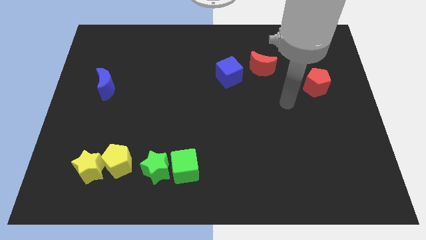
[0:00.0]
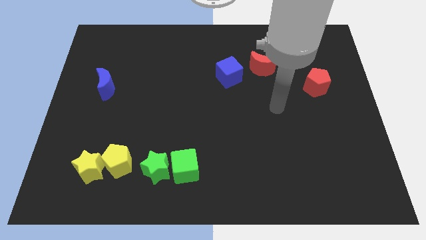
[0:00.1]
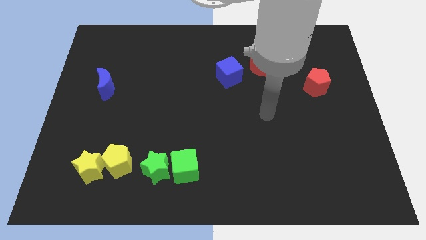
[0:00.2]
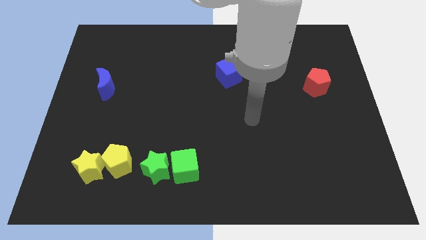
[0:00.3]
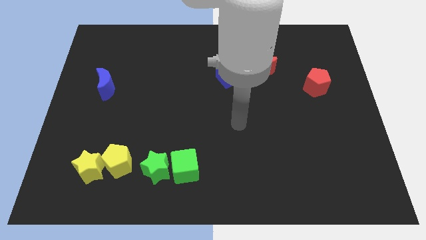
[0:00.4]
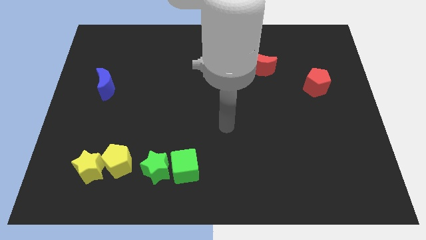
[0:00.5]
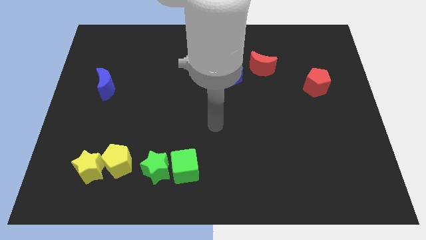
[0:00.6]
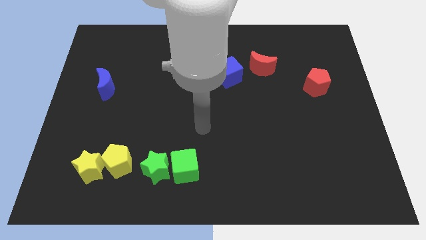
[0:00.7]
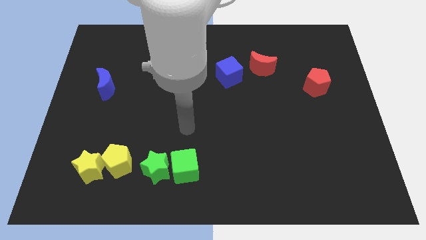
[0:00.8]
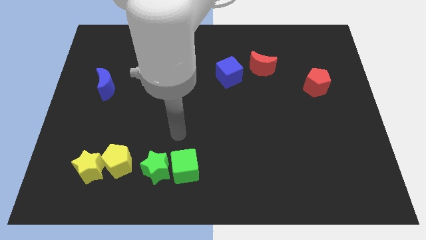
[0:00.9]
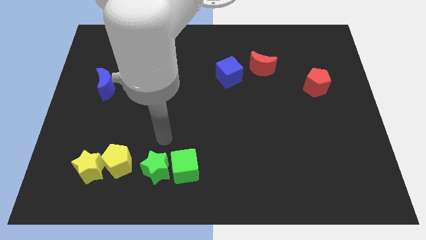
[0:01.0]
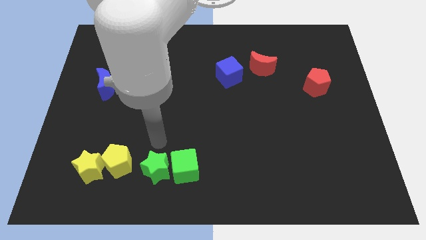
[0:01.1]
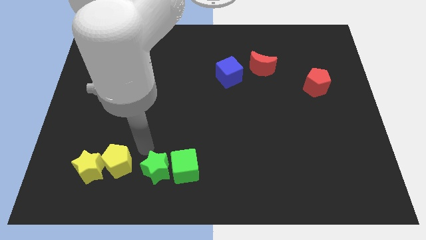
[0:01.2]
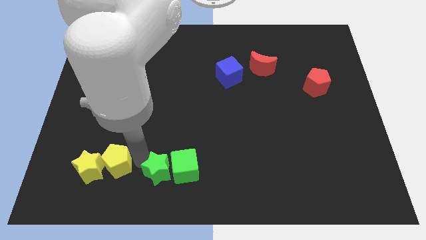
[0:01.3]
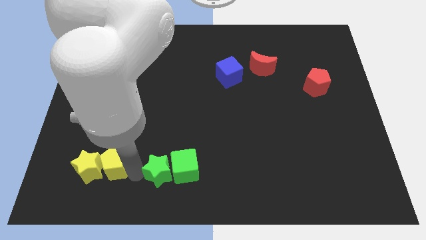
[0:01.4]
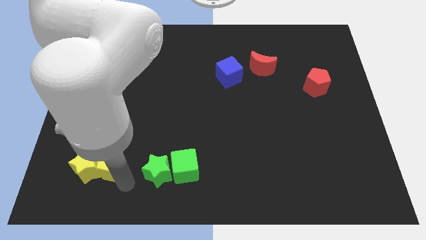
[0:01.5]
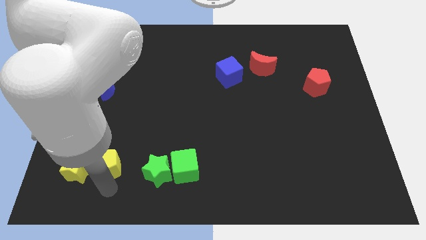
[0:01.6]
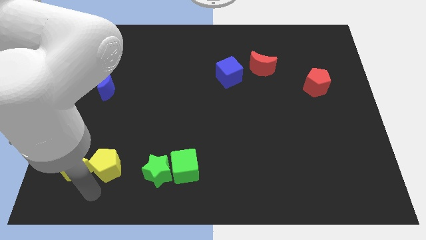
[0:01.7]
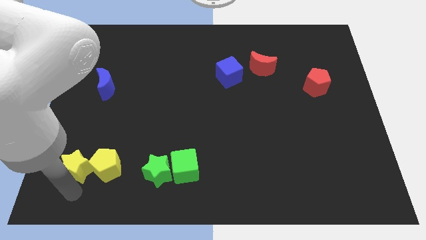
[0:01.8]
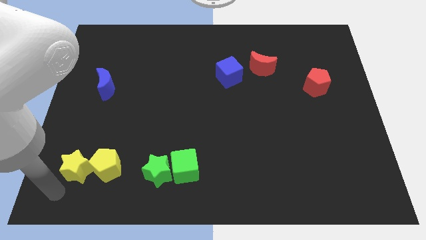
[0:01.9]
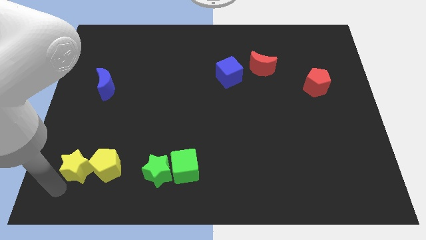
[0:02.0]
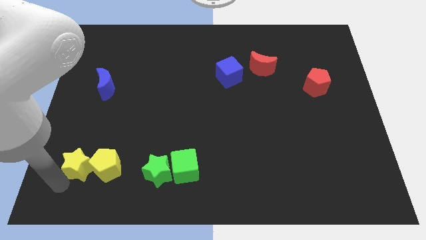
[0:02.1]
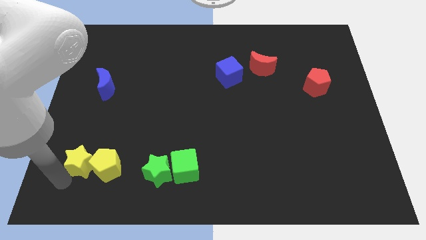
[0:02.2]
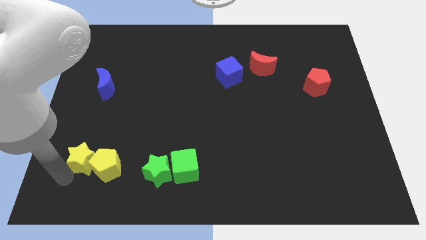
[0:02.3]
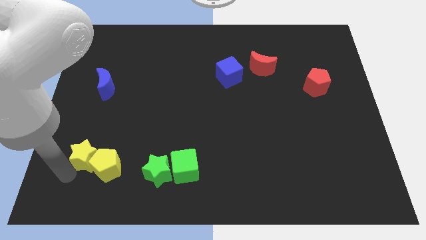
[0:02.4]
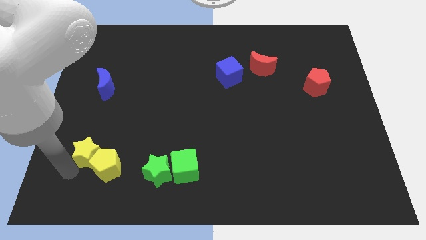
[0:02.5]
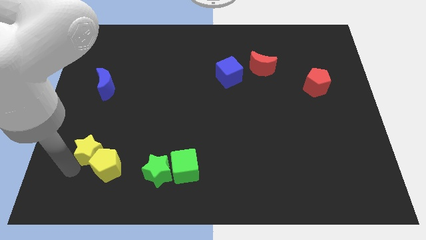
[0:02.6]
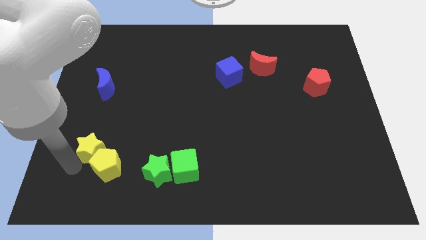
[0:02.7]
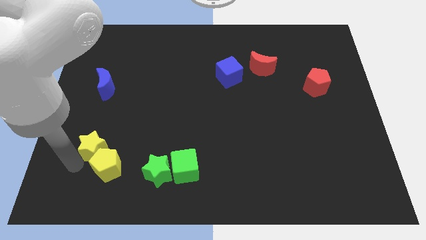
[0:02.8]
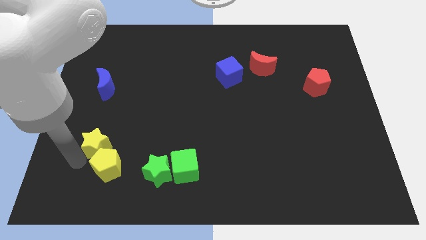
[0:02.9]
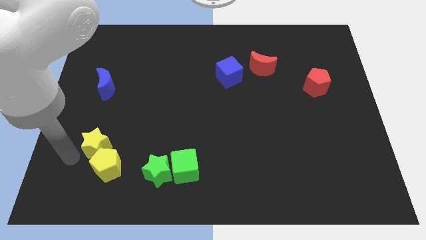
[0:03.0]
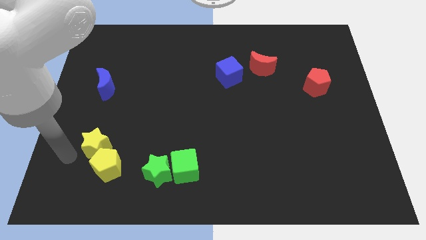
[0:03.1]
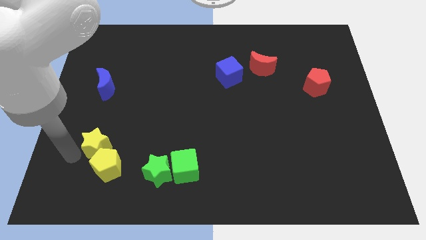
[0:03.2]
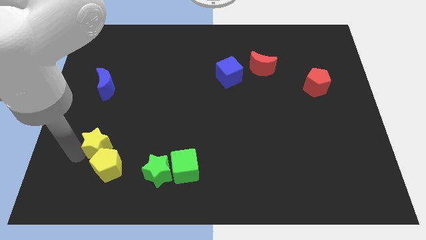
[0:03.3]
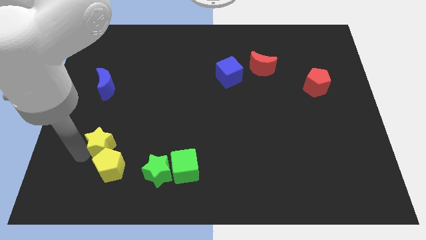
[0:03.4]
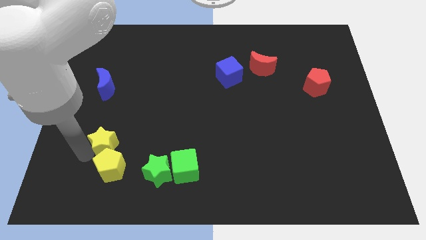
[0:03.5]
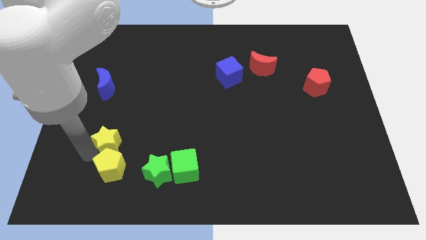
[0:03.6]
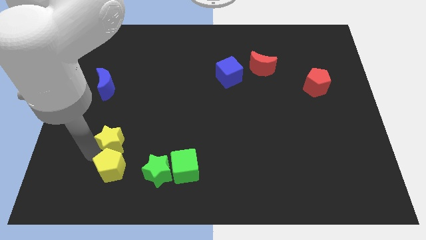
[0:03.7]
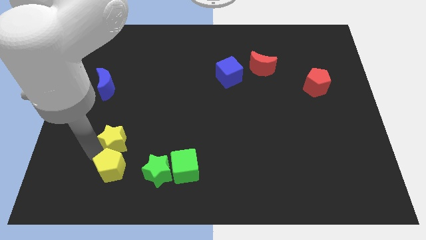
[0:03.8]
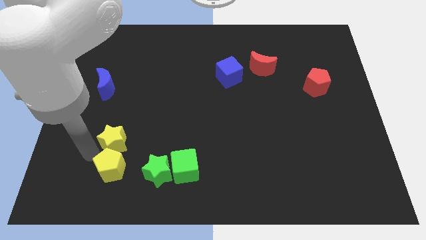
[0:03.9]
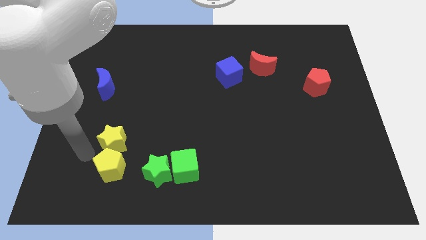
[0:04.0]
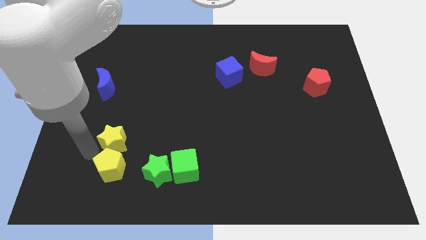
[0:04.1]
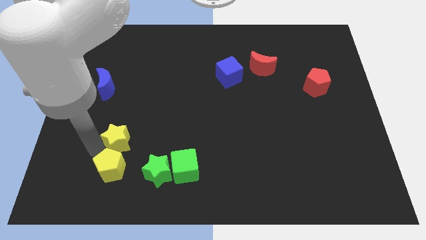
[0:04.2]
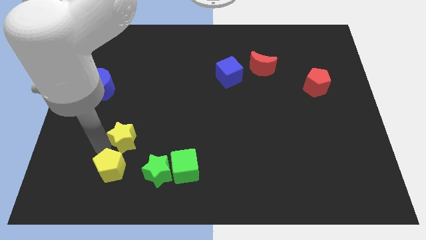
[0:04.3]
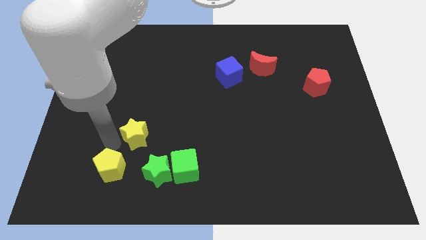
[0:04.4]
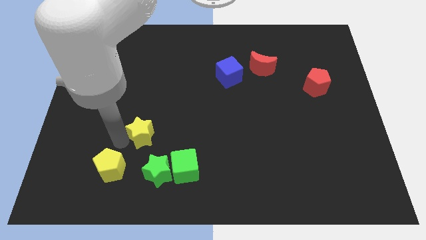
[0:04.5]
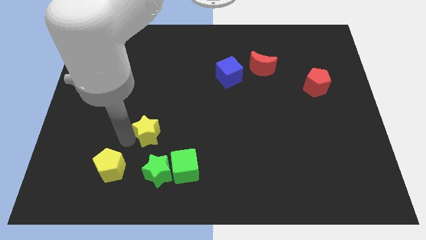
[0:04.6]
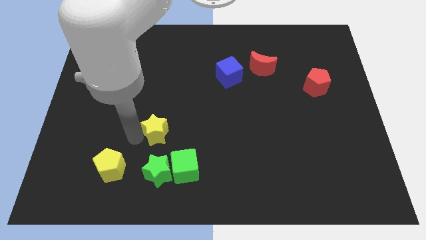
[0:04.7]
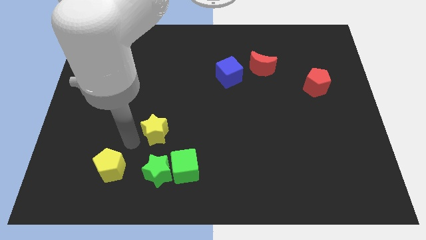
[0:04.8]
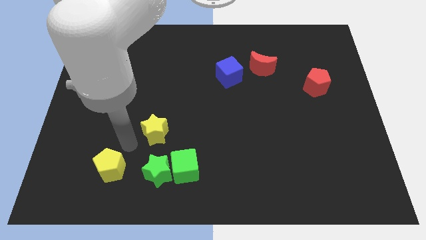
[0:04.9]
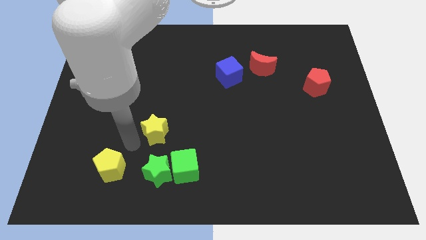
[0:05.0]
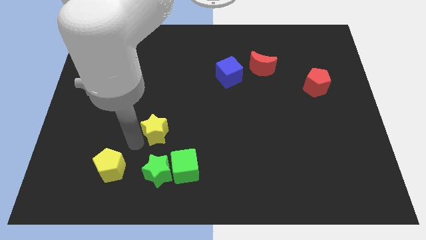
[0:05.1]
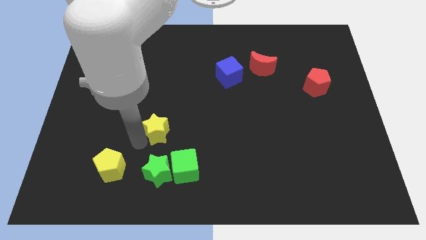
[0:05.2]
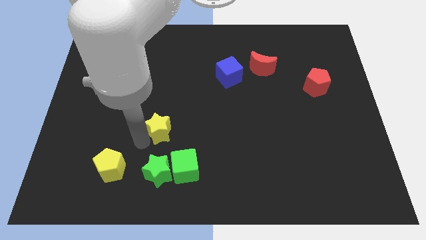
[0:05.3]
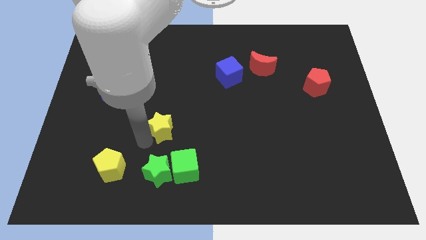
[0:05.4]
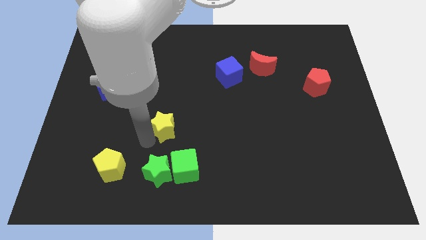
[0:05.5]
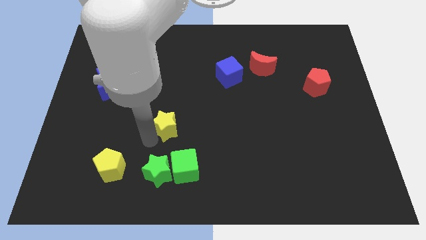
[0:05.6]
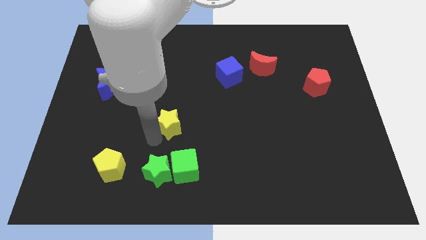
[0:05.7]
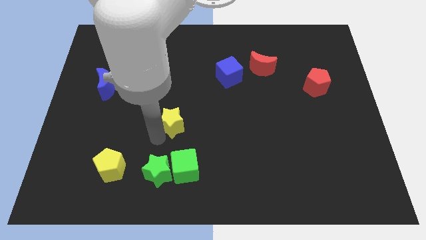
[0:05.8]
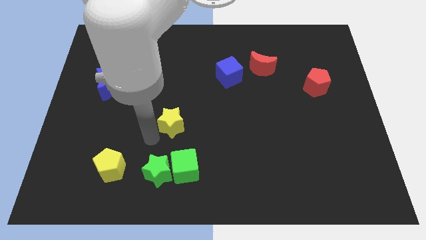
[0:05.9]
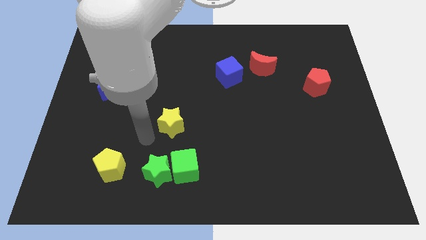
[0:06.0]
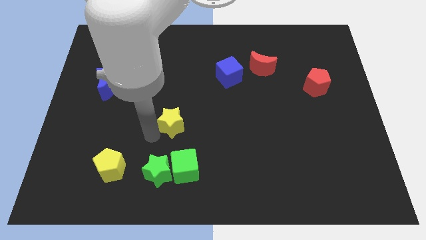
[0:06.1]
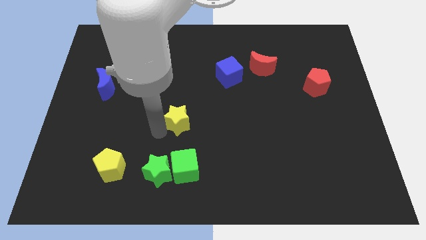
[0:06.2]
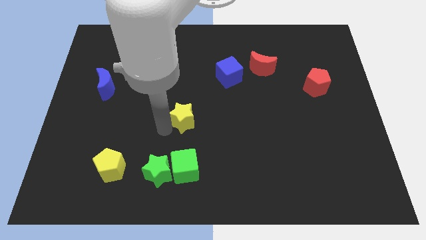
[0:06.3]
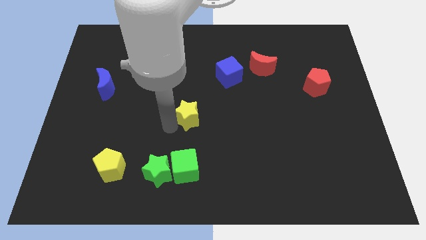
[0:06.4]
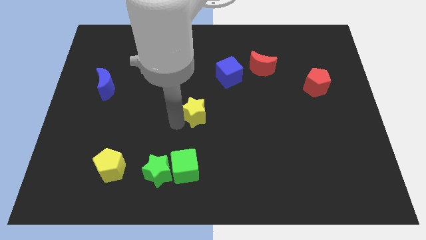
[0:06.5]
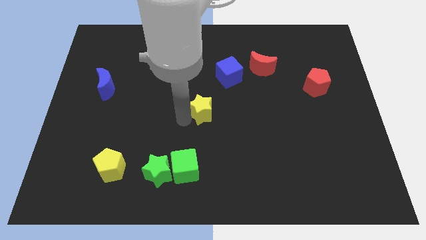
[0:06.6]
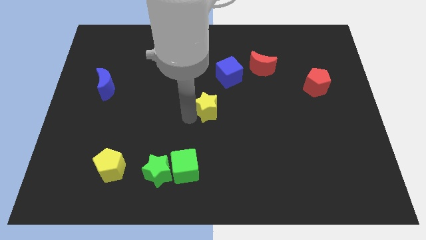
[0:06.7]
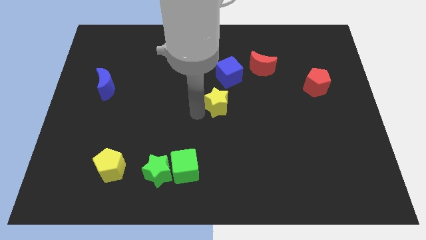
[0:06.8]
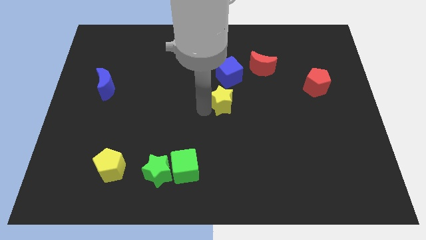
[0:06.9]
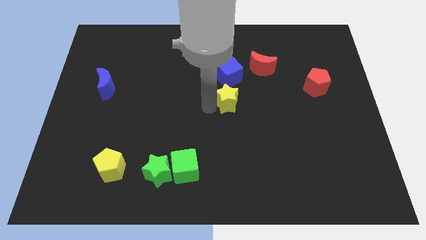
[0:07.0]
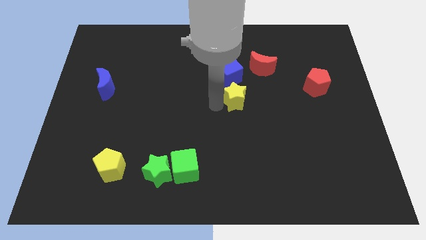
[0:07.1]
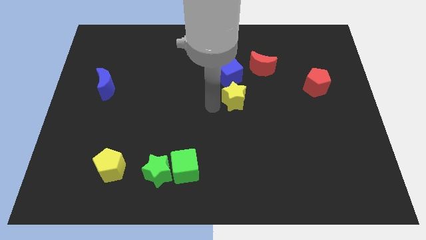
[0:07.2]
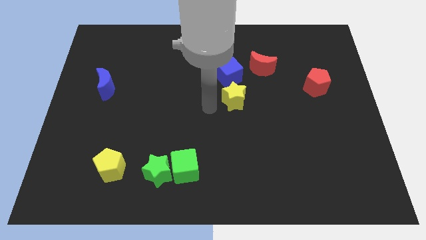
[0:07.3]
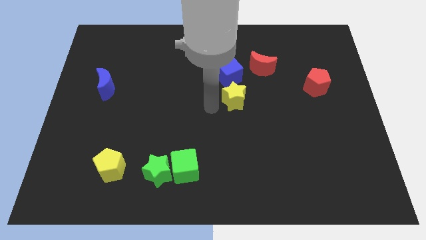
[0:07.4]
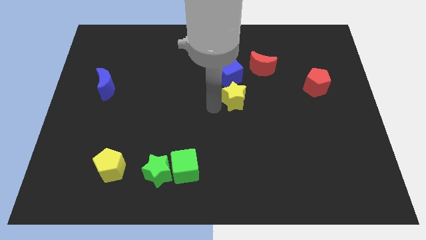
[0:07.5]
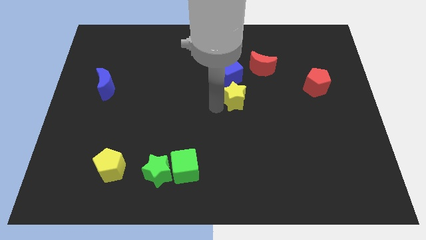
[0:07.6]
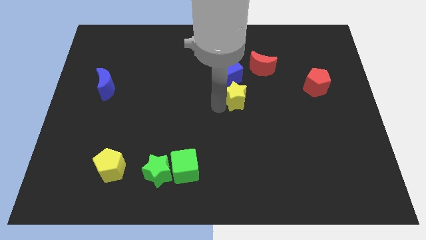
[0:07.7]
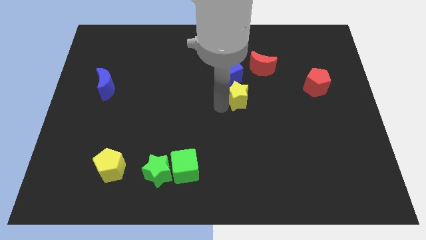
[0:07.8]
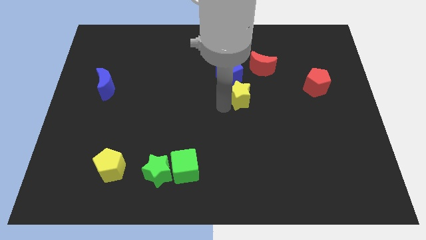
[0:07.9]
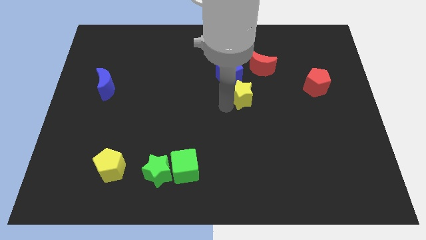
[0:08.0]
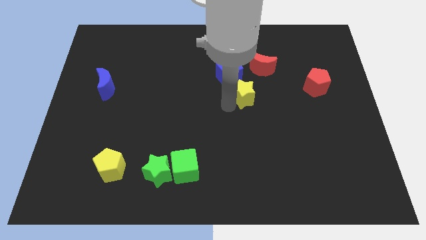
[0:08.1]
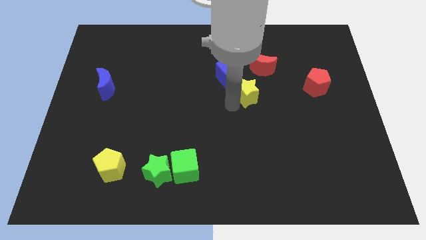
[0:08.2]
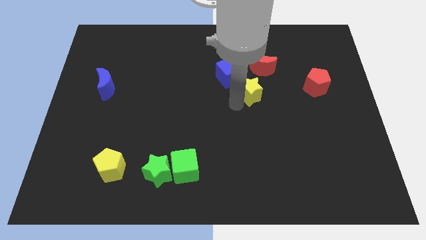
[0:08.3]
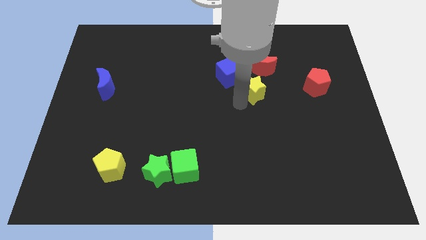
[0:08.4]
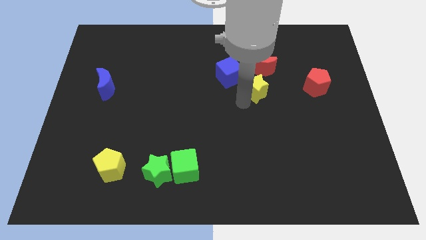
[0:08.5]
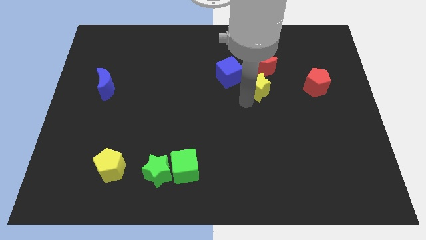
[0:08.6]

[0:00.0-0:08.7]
slide the yellow star just right of the blue cube
